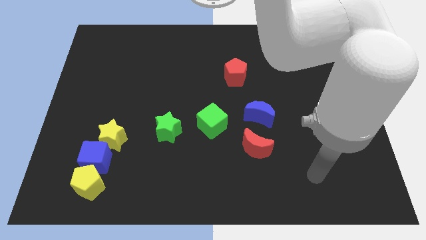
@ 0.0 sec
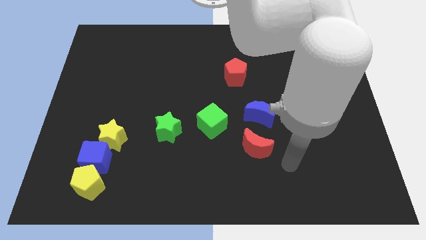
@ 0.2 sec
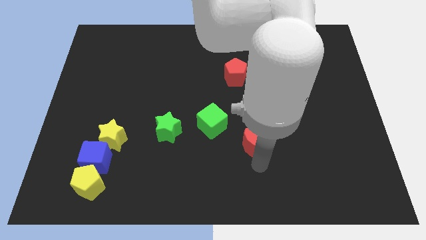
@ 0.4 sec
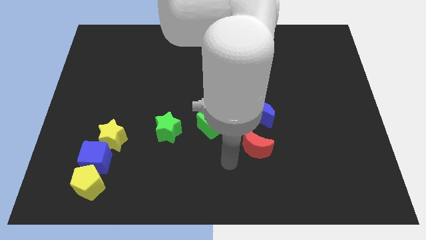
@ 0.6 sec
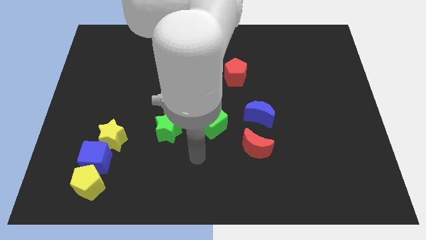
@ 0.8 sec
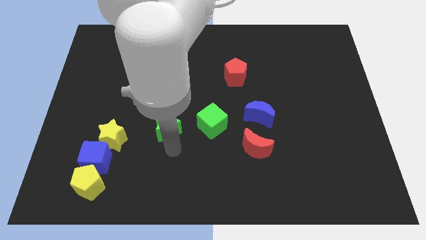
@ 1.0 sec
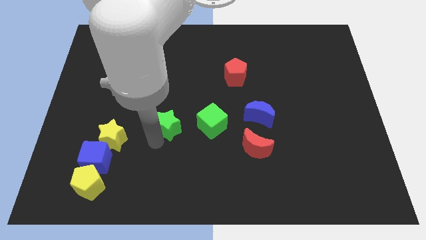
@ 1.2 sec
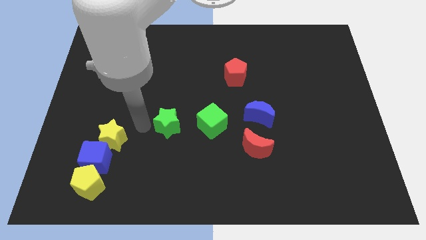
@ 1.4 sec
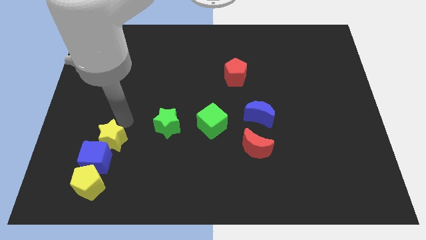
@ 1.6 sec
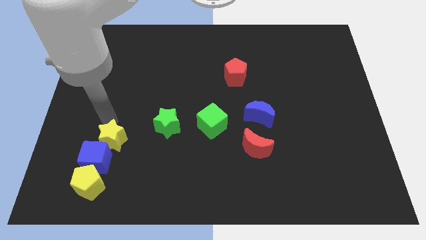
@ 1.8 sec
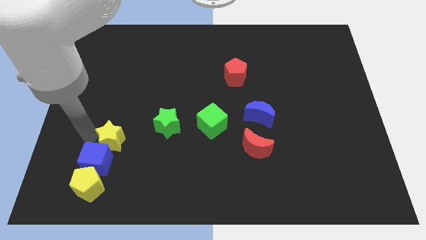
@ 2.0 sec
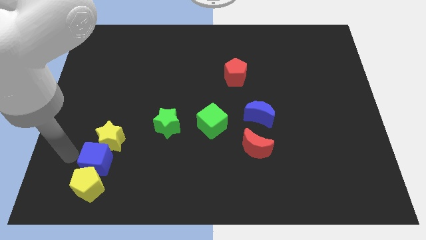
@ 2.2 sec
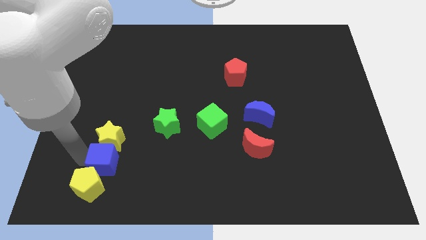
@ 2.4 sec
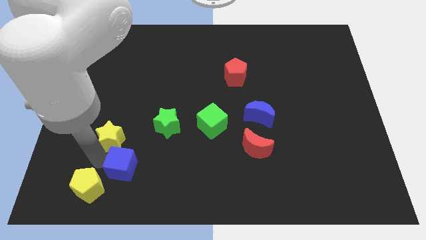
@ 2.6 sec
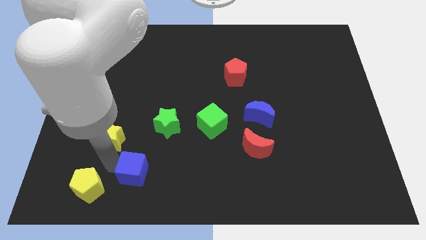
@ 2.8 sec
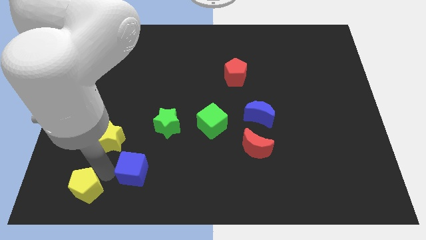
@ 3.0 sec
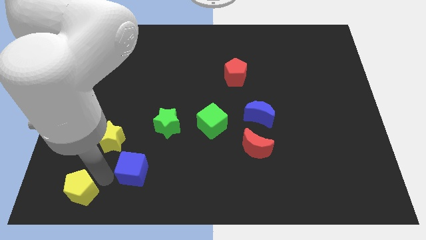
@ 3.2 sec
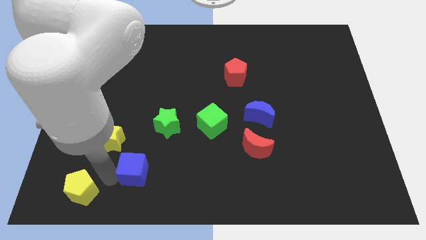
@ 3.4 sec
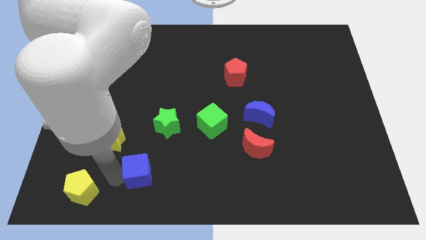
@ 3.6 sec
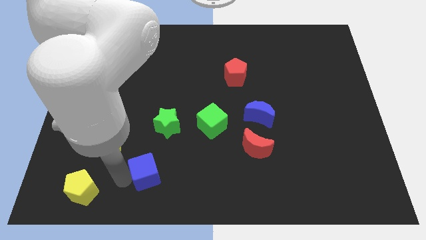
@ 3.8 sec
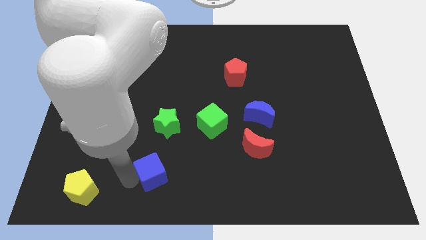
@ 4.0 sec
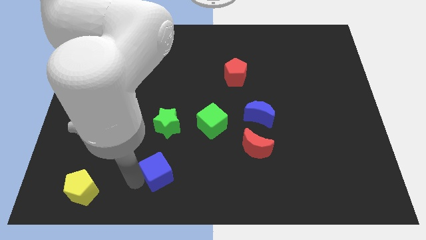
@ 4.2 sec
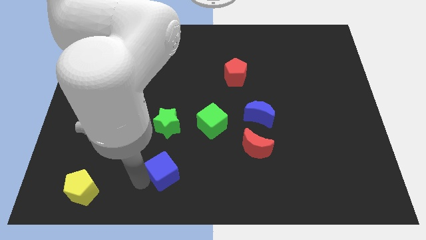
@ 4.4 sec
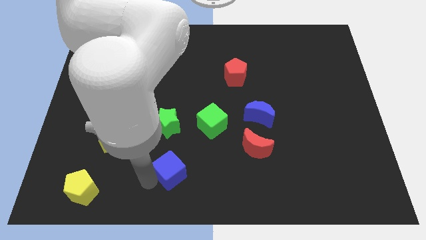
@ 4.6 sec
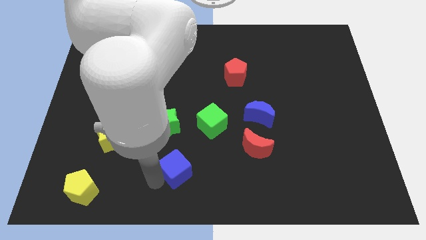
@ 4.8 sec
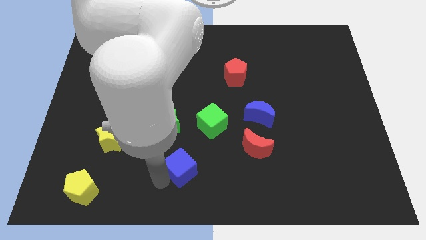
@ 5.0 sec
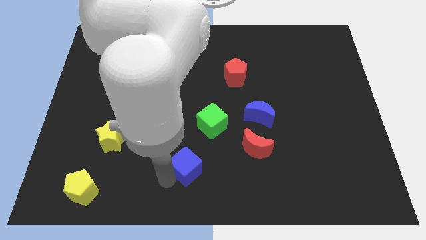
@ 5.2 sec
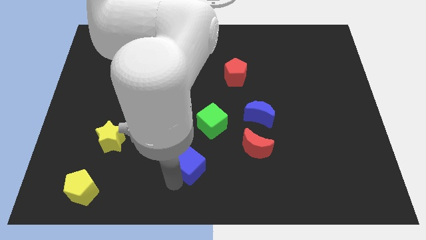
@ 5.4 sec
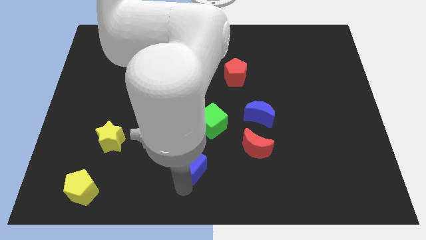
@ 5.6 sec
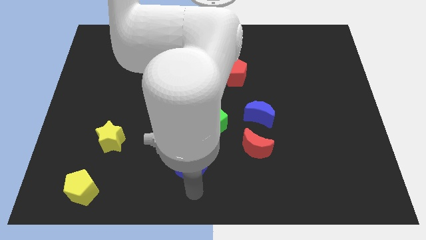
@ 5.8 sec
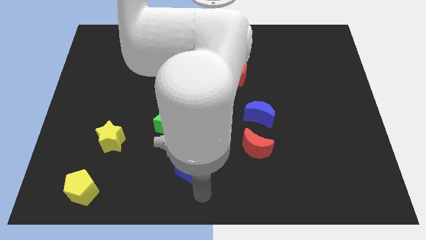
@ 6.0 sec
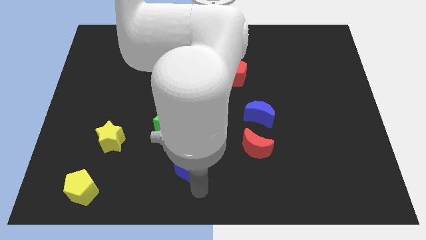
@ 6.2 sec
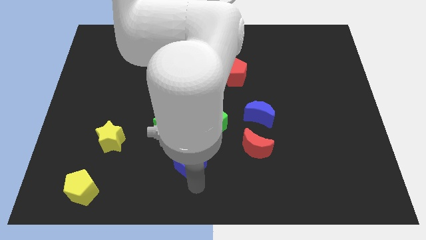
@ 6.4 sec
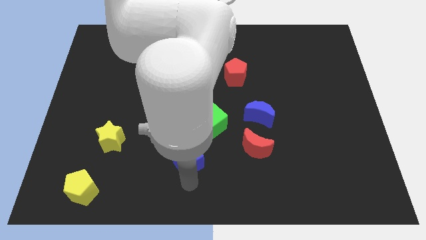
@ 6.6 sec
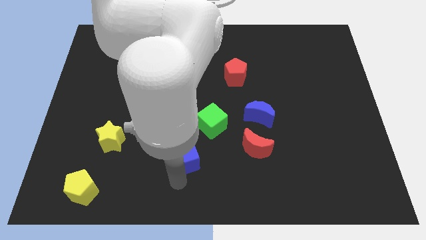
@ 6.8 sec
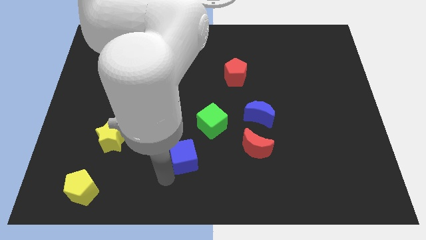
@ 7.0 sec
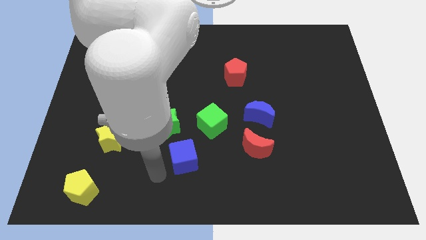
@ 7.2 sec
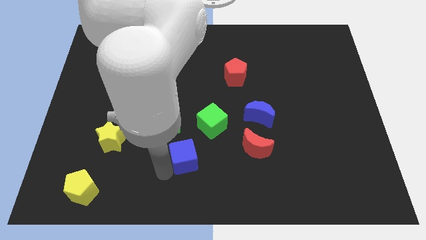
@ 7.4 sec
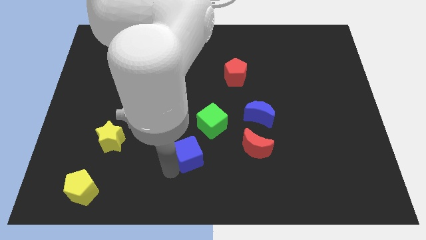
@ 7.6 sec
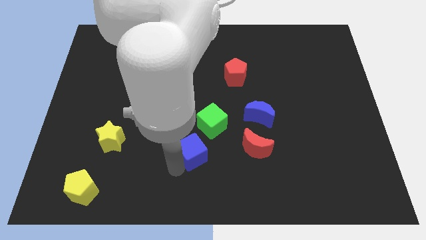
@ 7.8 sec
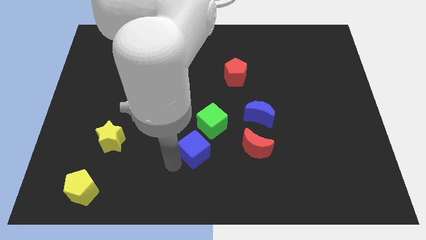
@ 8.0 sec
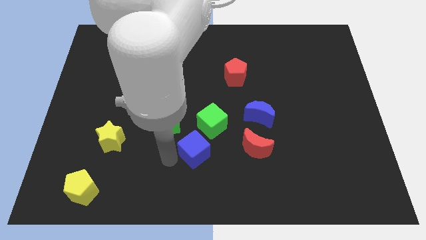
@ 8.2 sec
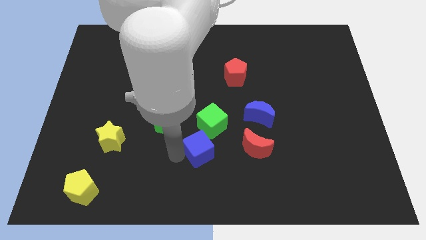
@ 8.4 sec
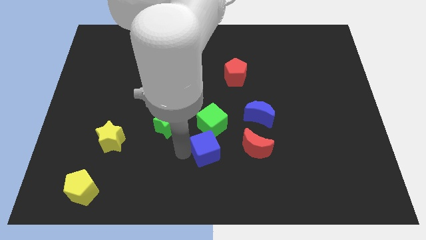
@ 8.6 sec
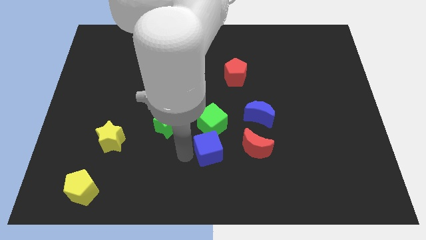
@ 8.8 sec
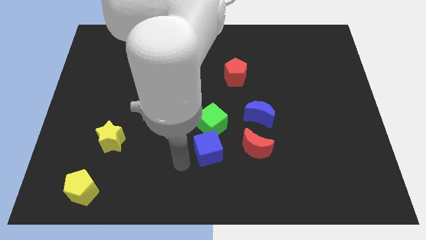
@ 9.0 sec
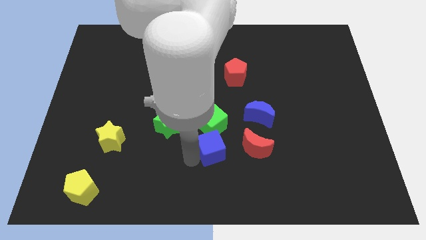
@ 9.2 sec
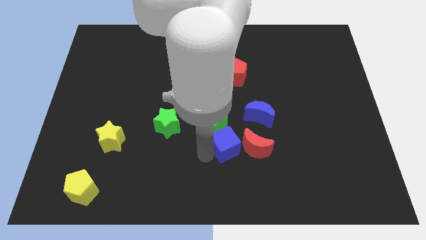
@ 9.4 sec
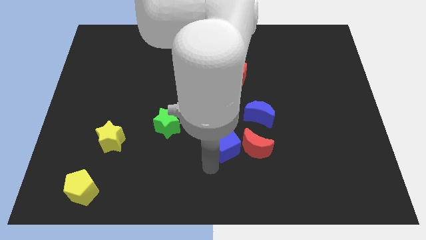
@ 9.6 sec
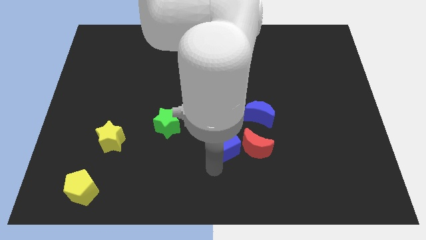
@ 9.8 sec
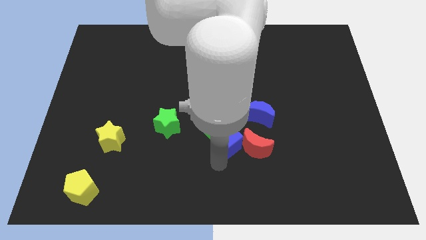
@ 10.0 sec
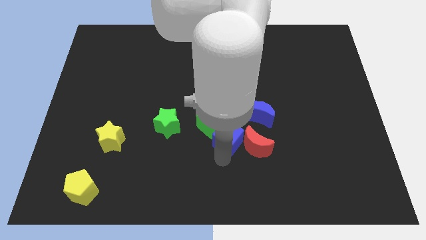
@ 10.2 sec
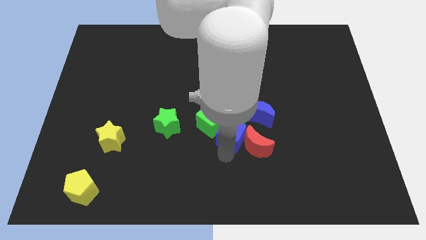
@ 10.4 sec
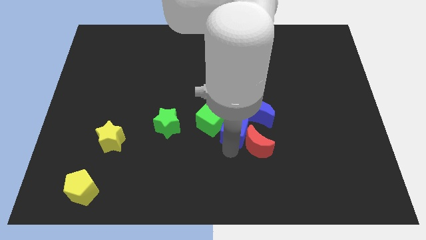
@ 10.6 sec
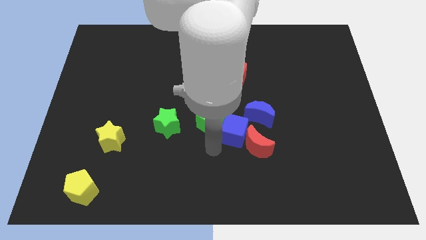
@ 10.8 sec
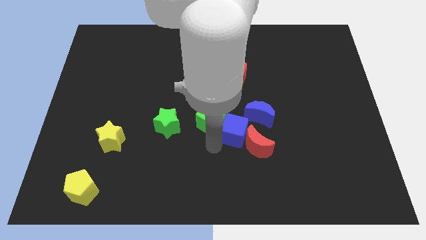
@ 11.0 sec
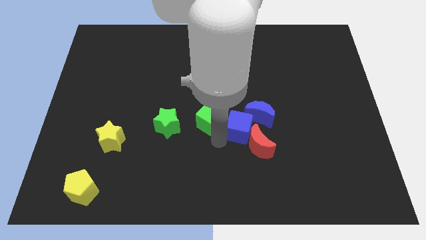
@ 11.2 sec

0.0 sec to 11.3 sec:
push the blue cube to the blue moon
